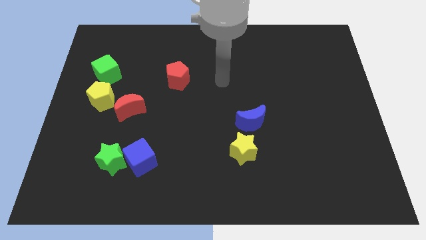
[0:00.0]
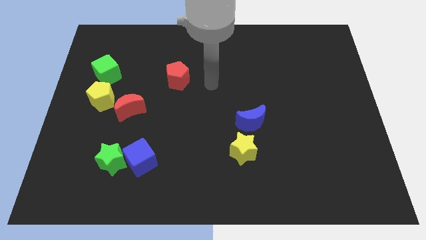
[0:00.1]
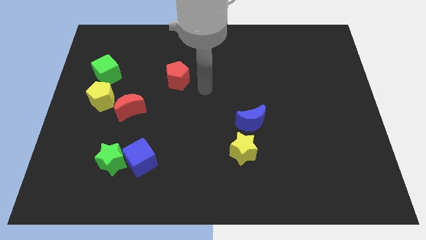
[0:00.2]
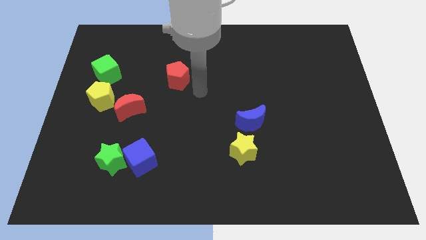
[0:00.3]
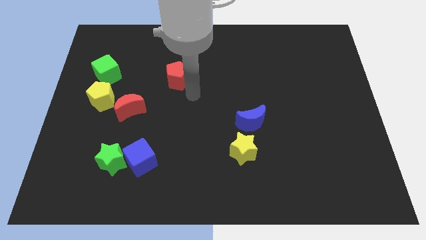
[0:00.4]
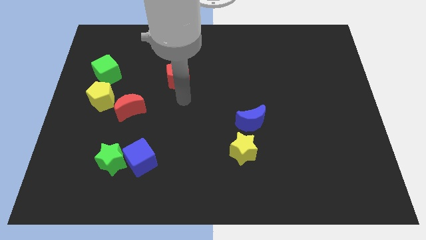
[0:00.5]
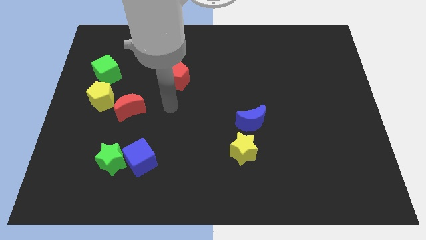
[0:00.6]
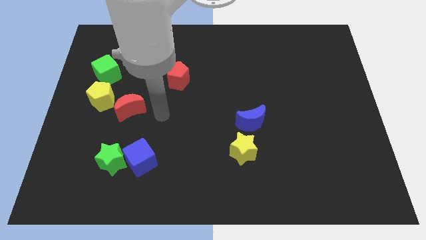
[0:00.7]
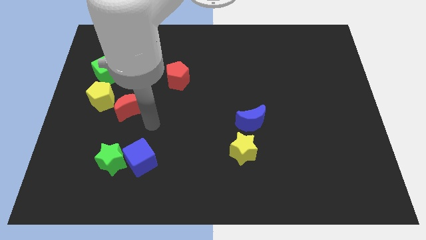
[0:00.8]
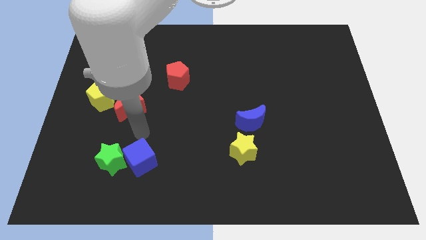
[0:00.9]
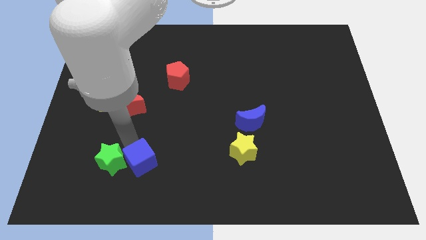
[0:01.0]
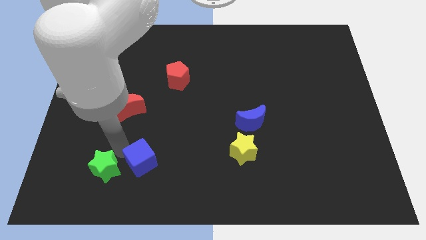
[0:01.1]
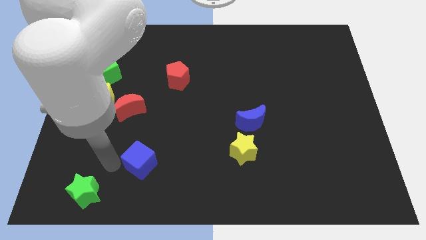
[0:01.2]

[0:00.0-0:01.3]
move the blue cube away from the green star

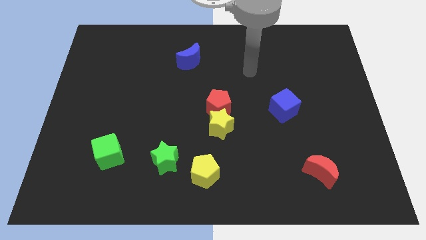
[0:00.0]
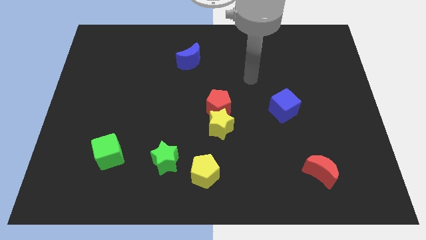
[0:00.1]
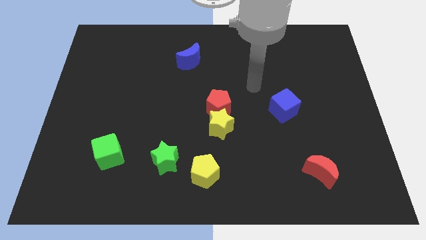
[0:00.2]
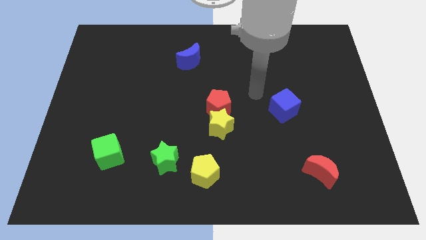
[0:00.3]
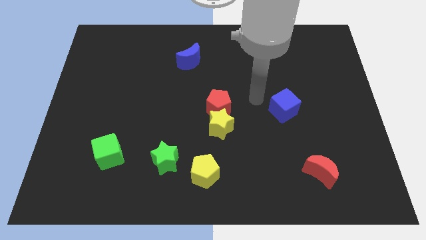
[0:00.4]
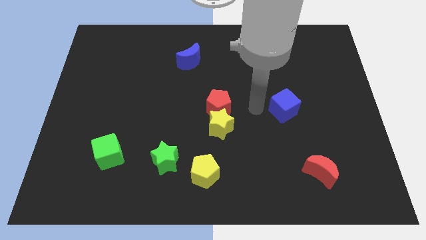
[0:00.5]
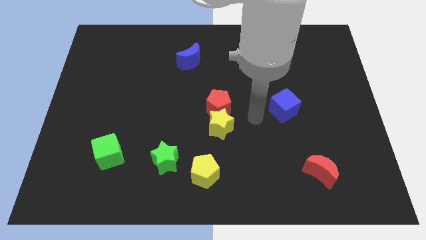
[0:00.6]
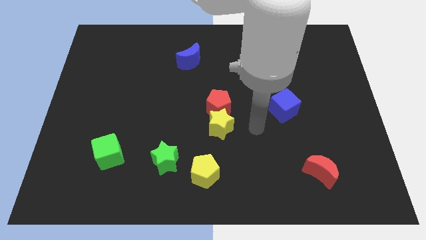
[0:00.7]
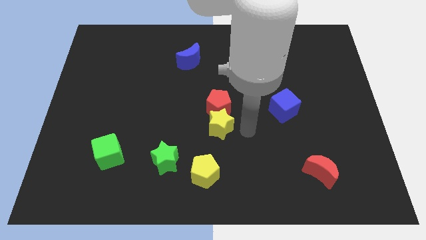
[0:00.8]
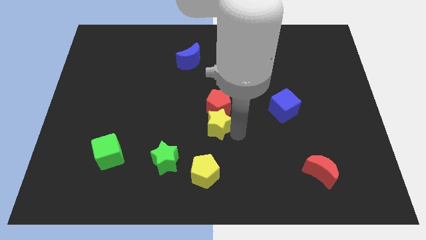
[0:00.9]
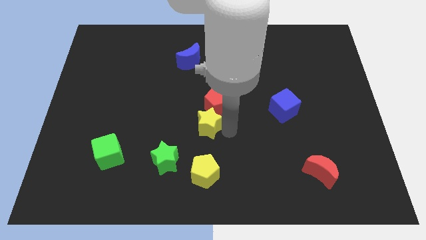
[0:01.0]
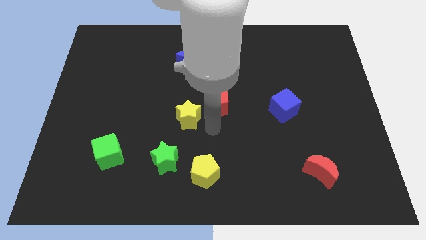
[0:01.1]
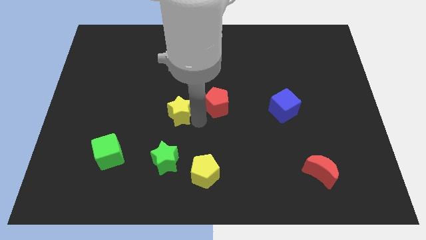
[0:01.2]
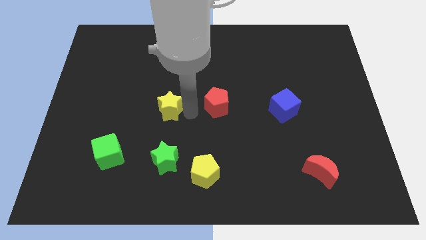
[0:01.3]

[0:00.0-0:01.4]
pull the red pentagon apart from the yellow star

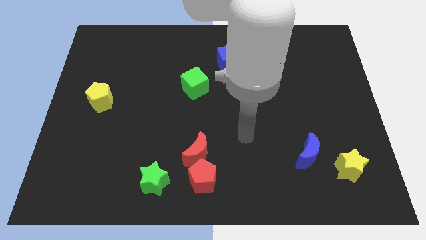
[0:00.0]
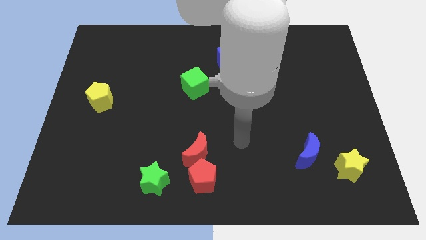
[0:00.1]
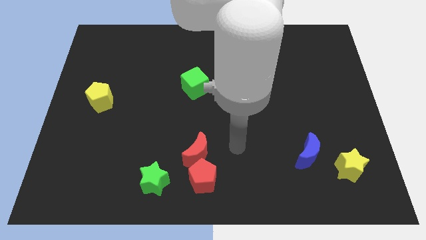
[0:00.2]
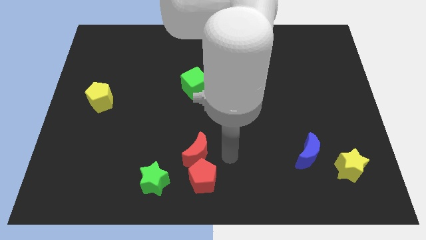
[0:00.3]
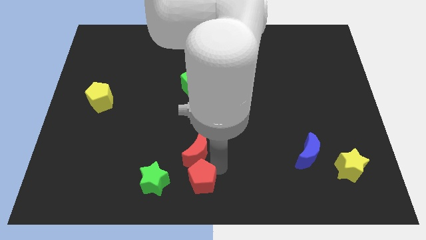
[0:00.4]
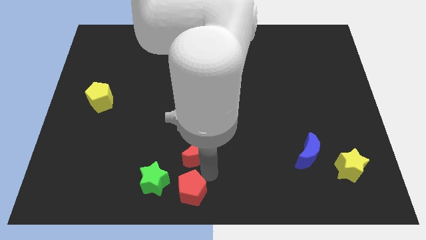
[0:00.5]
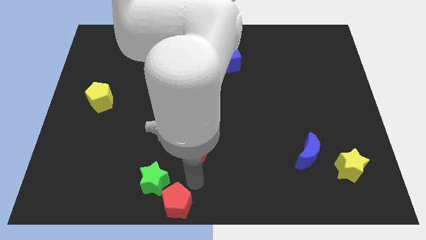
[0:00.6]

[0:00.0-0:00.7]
pull the red moon apart from the red pentagon

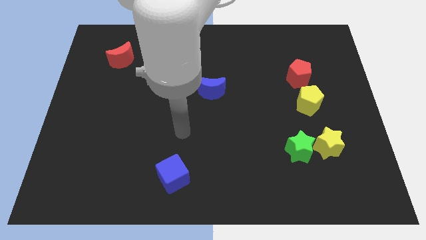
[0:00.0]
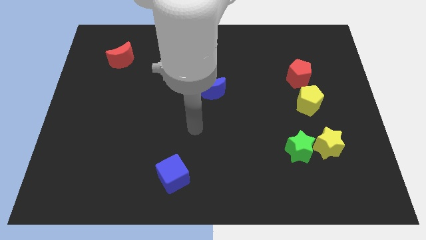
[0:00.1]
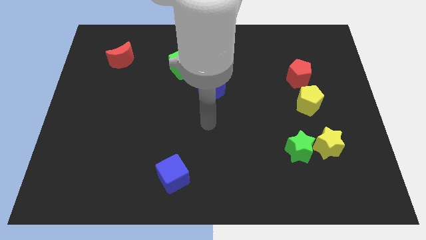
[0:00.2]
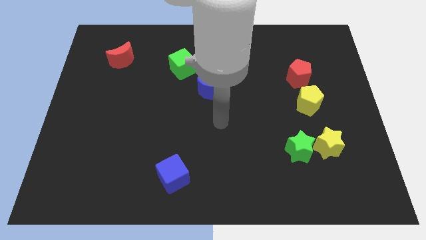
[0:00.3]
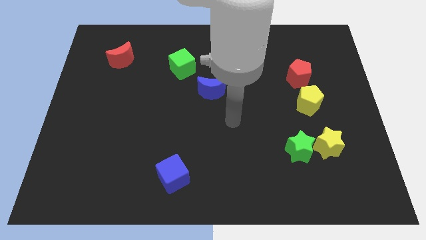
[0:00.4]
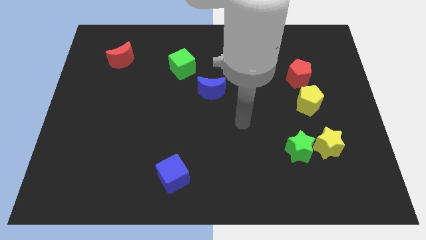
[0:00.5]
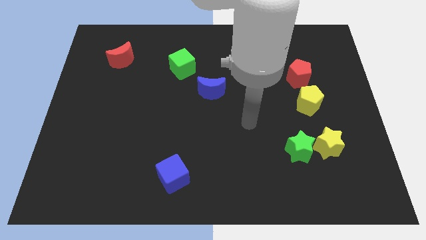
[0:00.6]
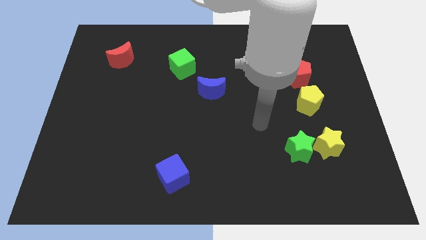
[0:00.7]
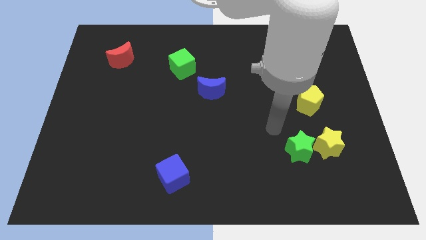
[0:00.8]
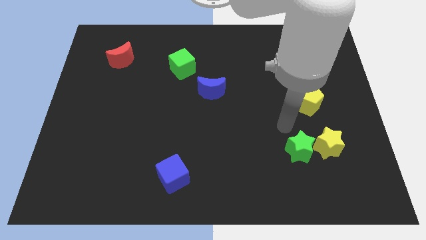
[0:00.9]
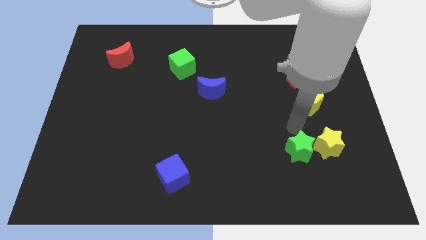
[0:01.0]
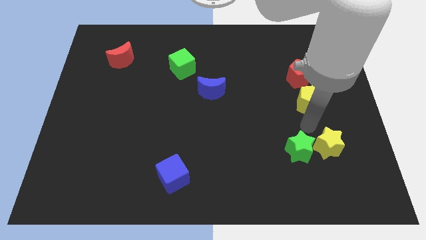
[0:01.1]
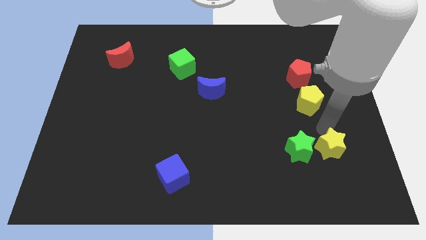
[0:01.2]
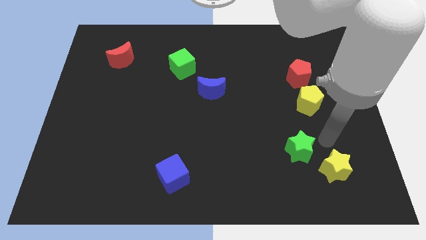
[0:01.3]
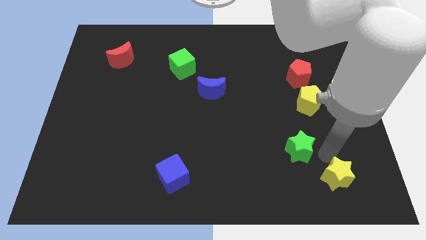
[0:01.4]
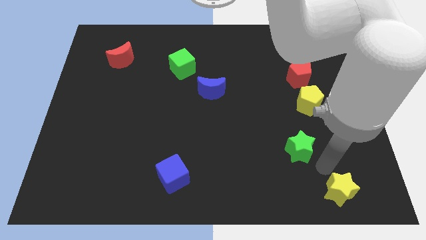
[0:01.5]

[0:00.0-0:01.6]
move the green star away from the yellow star

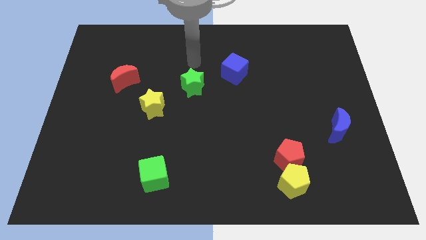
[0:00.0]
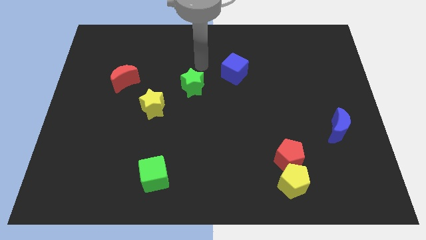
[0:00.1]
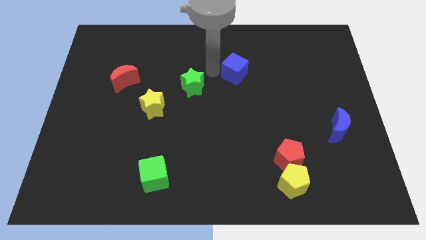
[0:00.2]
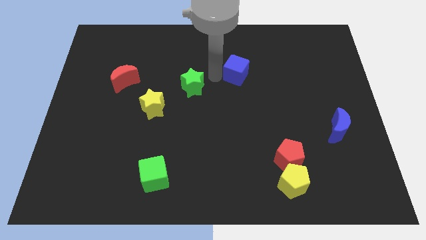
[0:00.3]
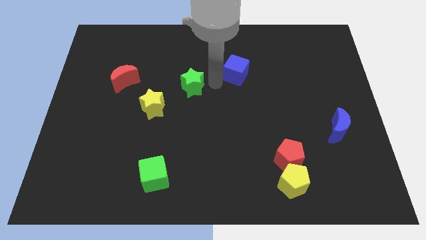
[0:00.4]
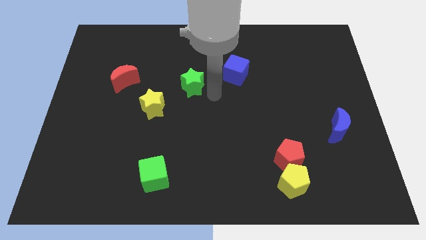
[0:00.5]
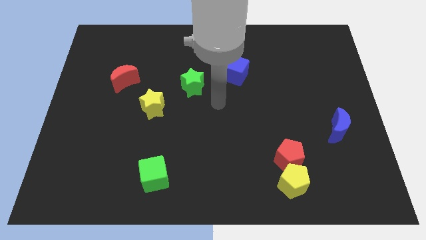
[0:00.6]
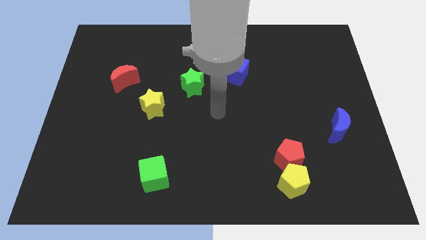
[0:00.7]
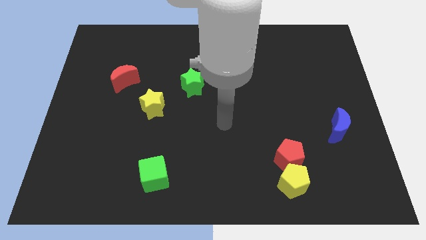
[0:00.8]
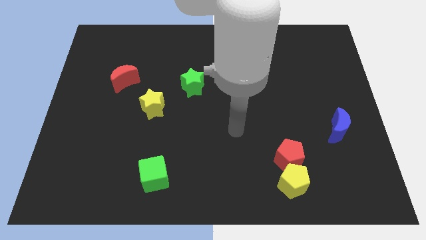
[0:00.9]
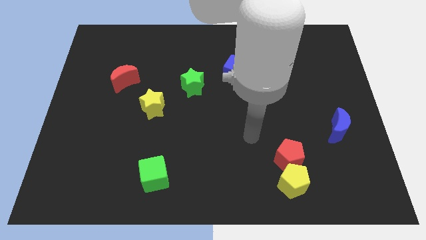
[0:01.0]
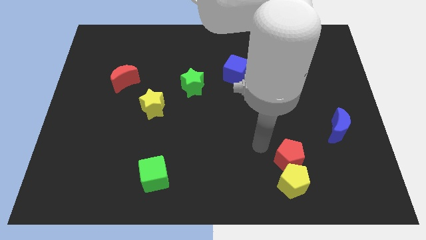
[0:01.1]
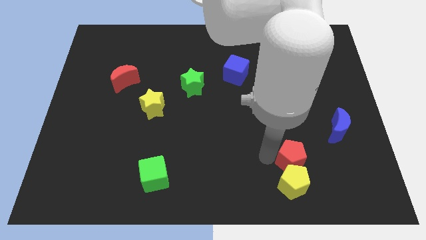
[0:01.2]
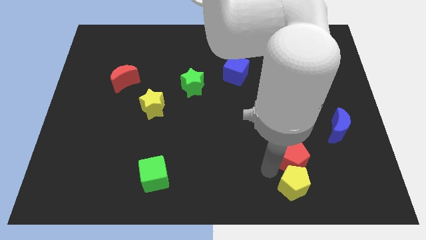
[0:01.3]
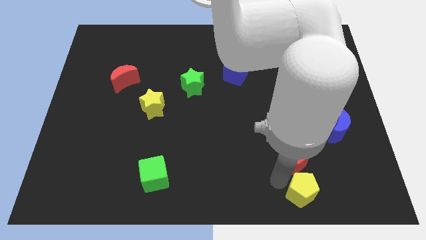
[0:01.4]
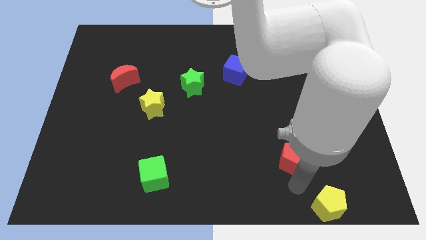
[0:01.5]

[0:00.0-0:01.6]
move the red pentagon away from the yellow pentagon

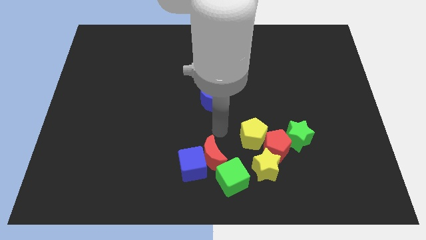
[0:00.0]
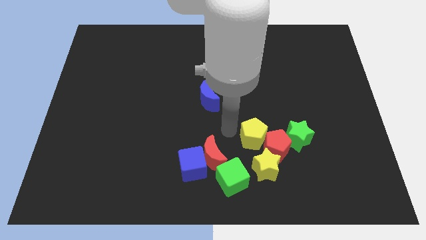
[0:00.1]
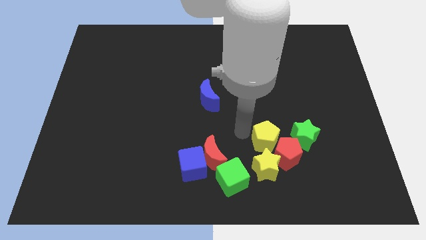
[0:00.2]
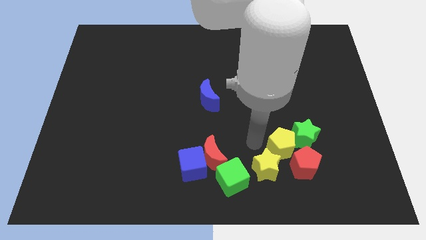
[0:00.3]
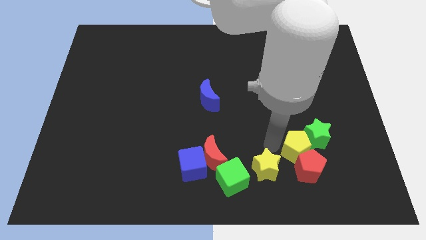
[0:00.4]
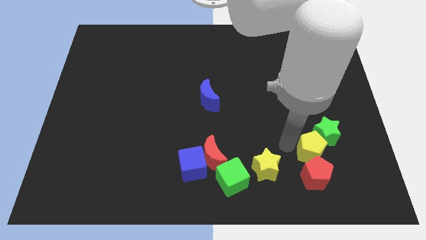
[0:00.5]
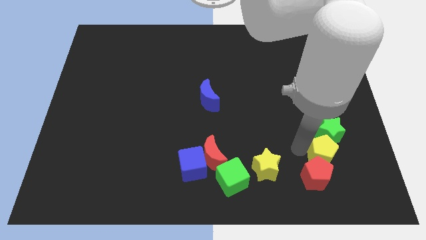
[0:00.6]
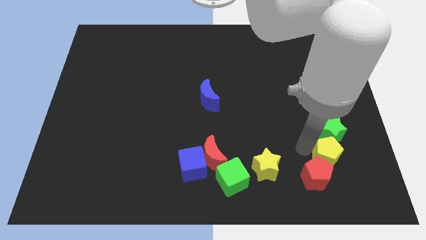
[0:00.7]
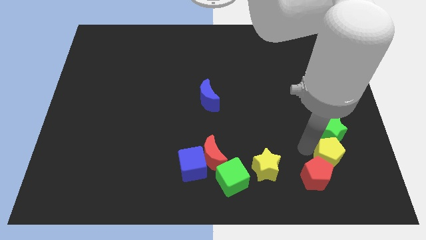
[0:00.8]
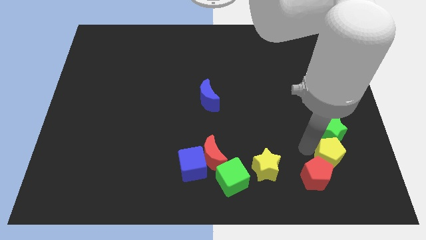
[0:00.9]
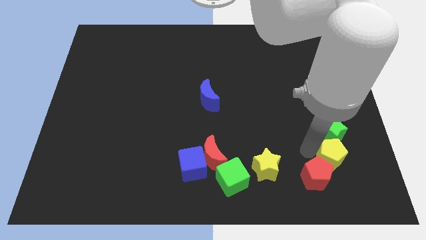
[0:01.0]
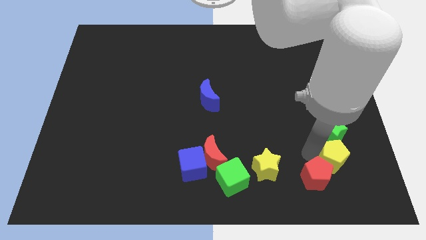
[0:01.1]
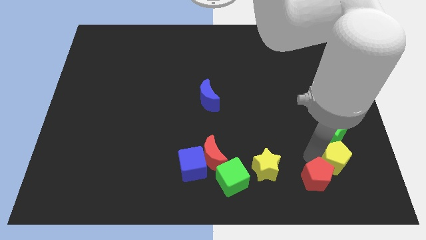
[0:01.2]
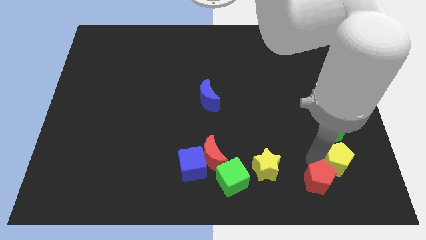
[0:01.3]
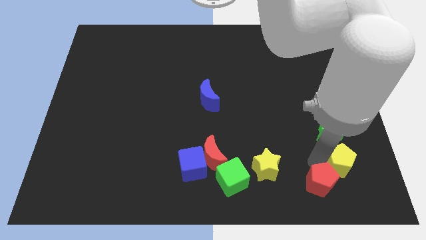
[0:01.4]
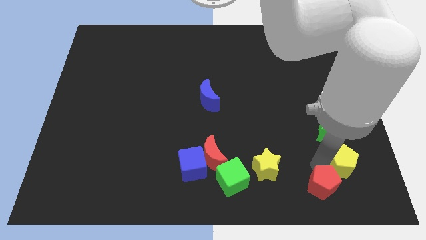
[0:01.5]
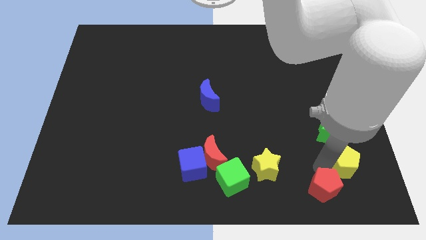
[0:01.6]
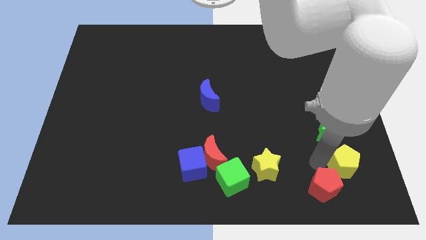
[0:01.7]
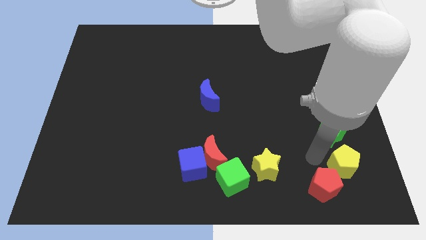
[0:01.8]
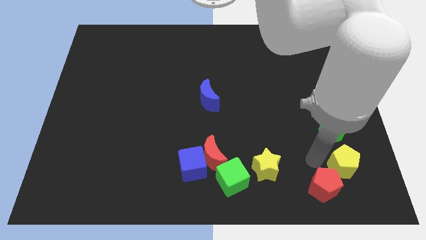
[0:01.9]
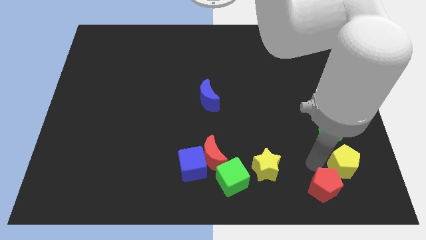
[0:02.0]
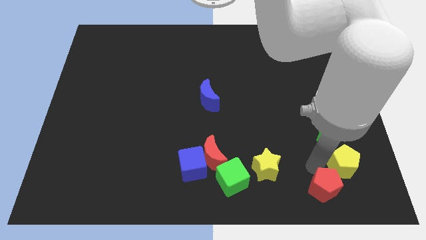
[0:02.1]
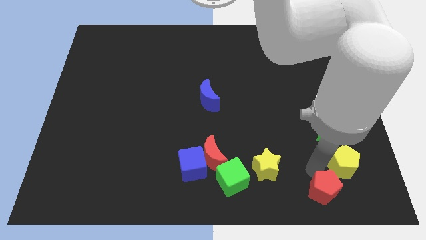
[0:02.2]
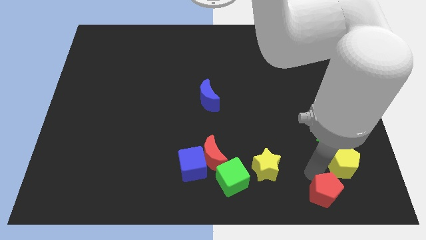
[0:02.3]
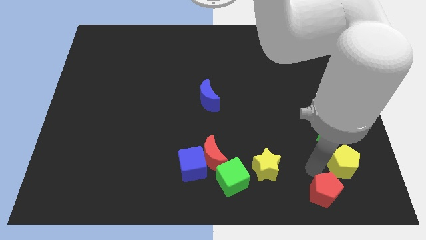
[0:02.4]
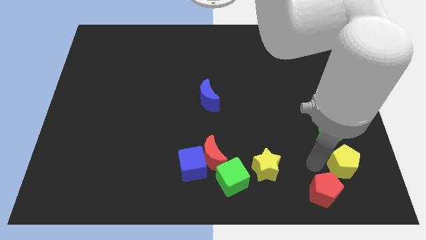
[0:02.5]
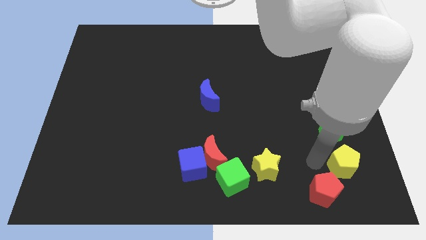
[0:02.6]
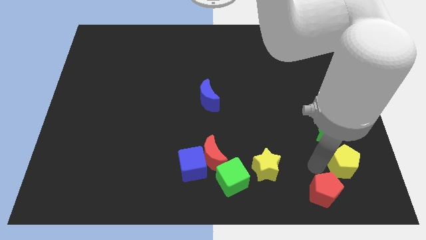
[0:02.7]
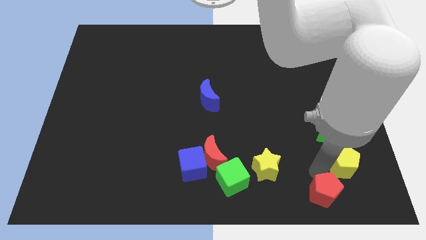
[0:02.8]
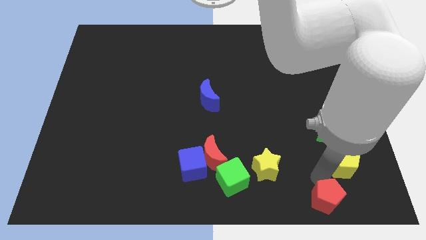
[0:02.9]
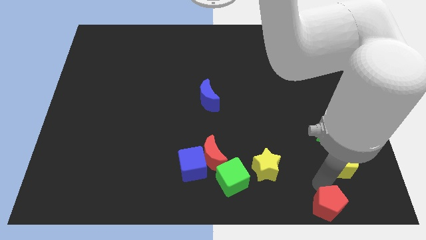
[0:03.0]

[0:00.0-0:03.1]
pull the red pentagon apart from the yellow star, yellow pentagon, and green star
